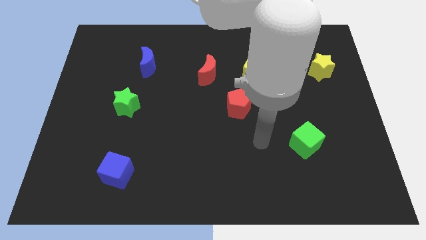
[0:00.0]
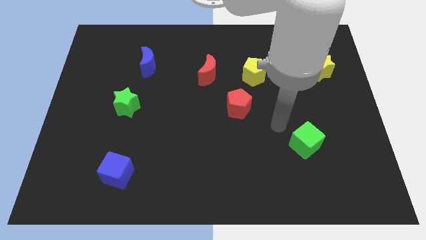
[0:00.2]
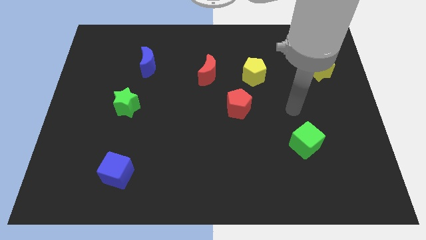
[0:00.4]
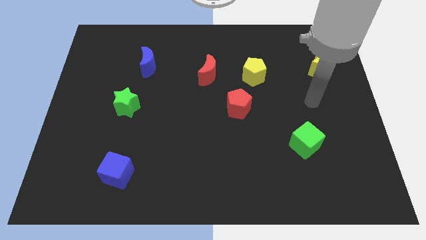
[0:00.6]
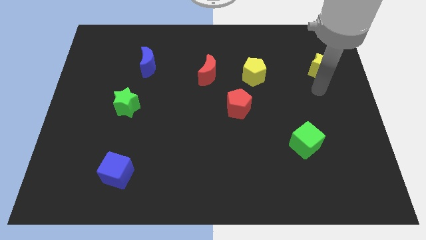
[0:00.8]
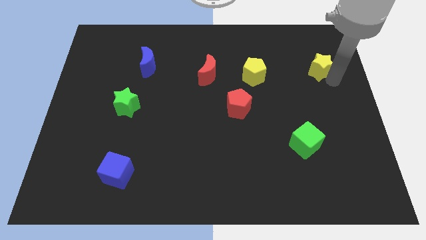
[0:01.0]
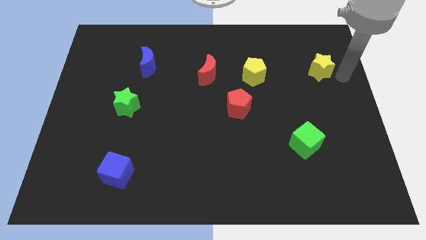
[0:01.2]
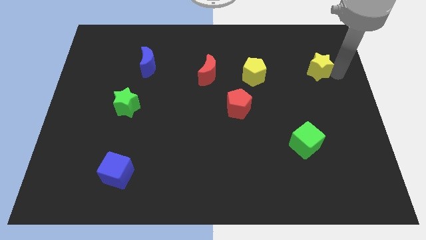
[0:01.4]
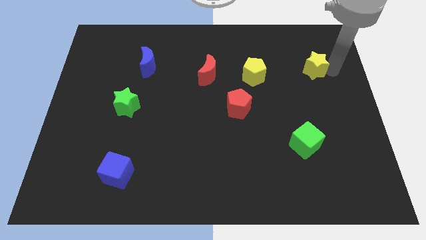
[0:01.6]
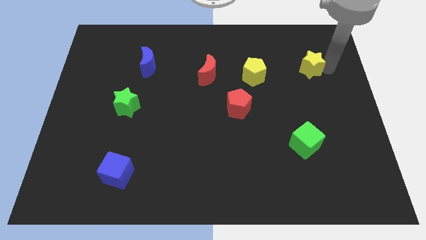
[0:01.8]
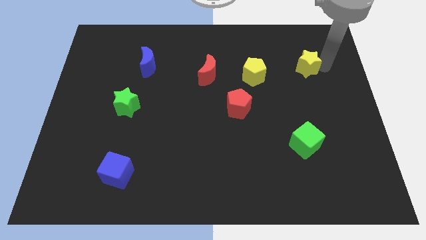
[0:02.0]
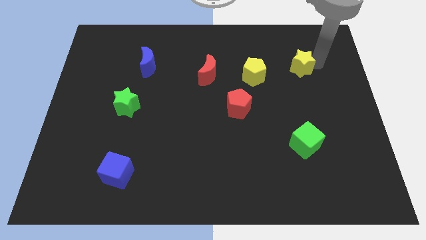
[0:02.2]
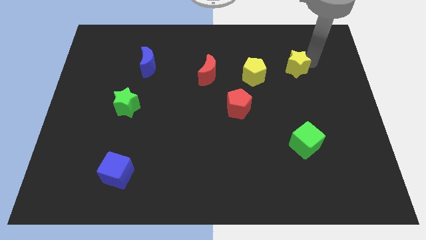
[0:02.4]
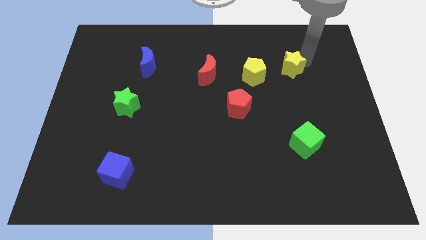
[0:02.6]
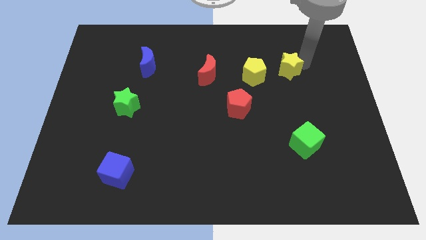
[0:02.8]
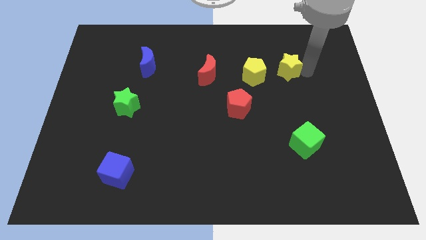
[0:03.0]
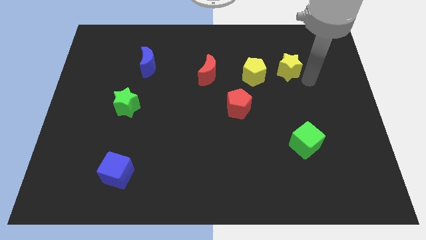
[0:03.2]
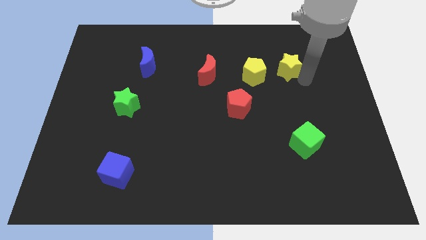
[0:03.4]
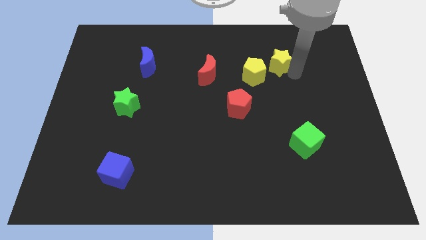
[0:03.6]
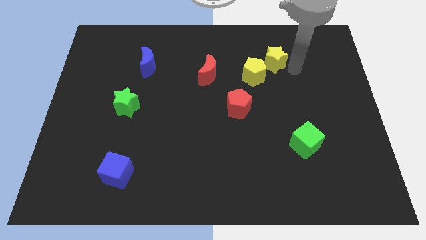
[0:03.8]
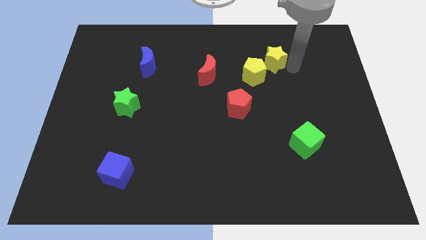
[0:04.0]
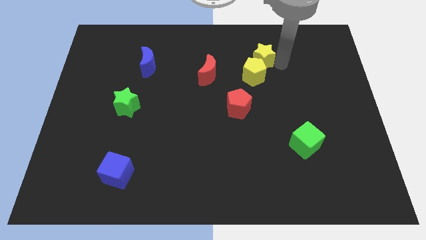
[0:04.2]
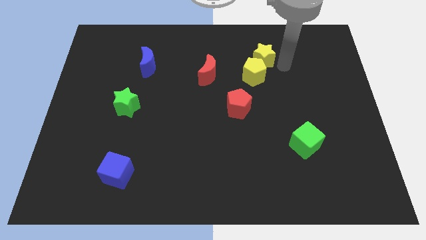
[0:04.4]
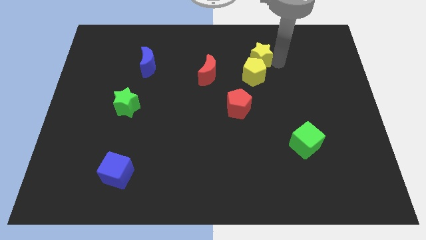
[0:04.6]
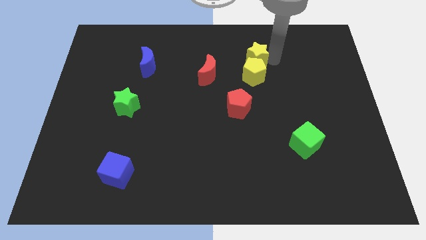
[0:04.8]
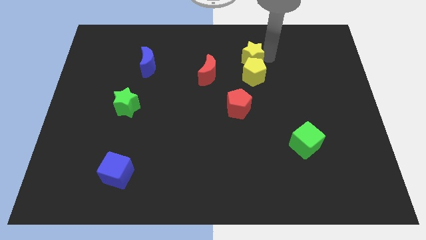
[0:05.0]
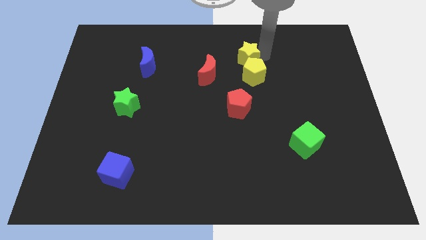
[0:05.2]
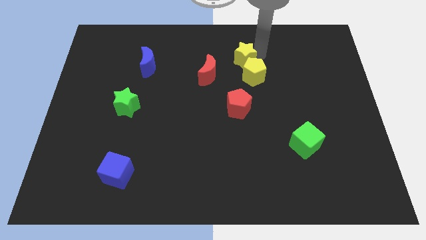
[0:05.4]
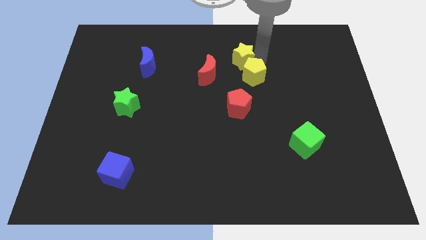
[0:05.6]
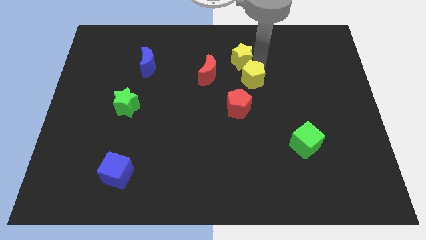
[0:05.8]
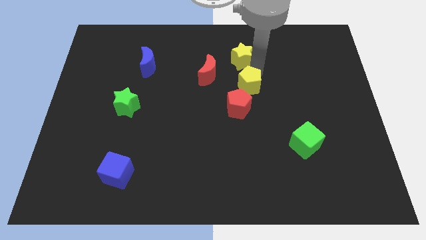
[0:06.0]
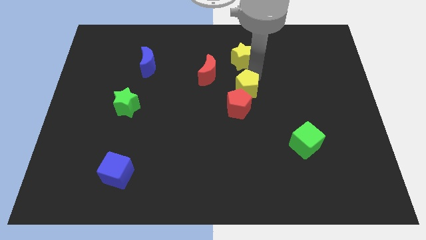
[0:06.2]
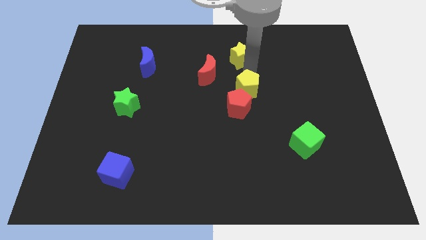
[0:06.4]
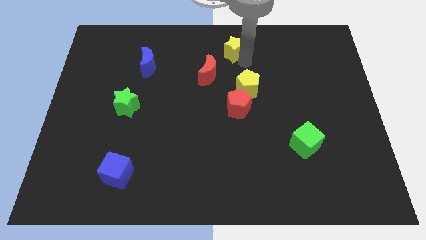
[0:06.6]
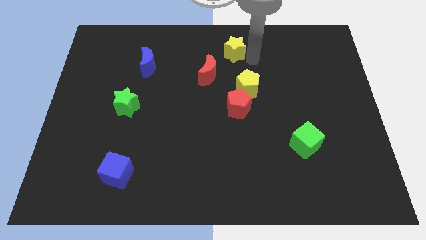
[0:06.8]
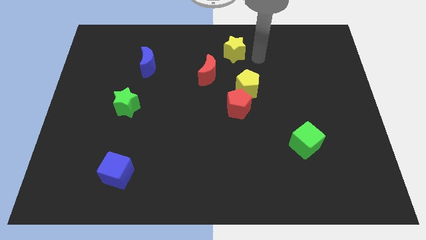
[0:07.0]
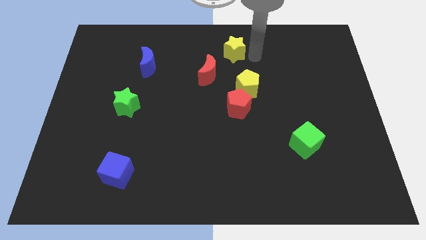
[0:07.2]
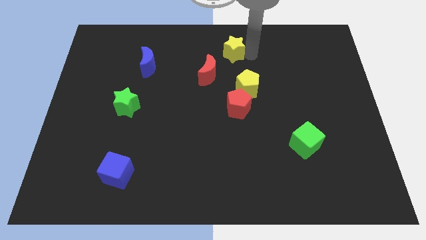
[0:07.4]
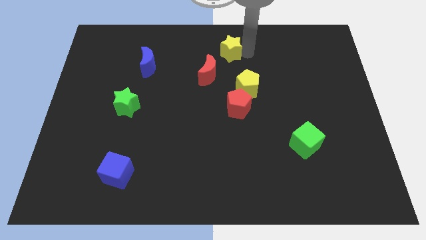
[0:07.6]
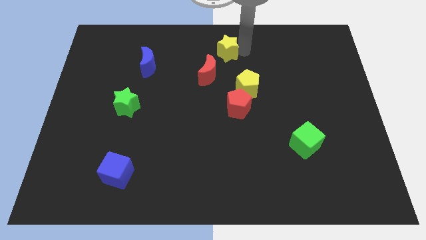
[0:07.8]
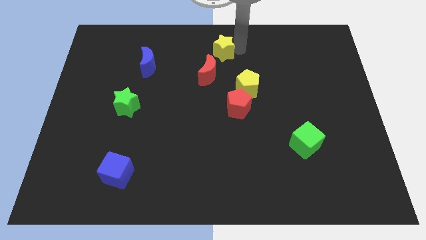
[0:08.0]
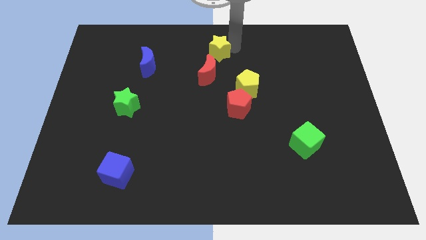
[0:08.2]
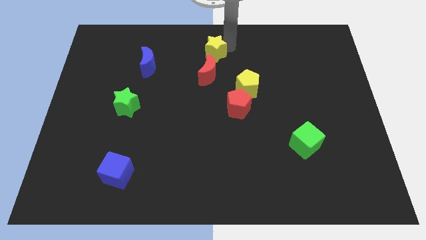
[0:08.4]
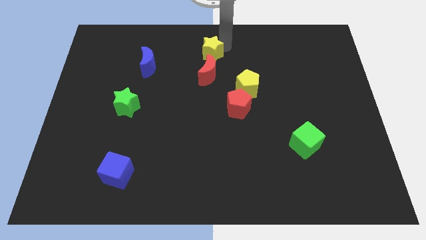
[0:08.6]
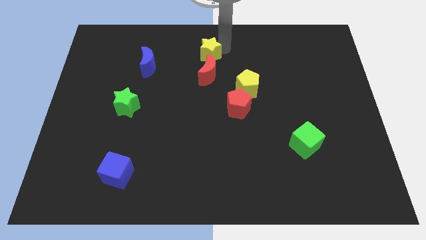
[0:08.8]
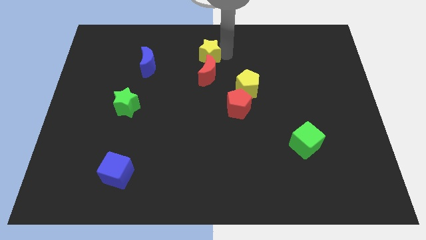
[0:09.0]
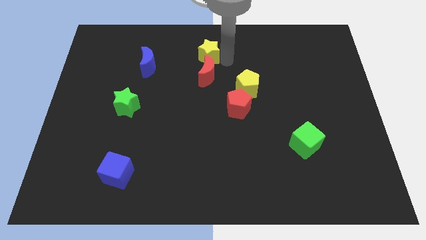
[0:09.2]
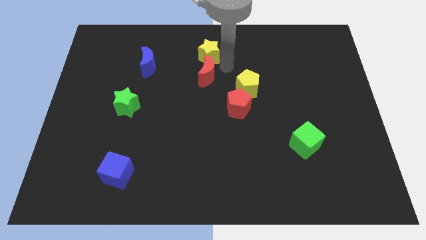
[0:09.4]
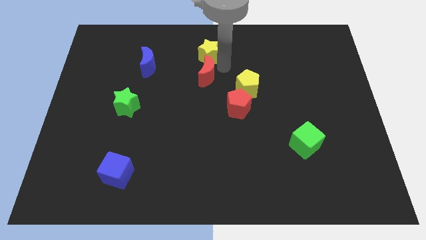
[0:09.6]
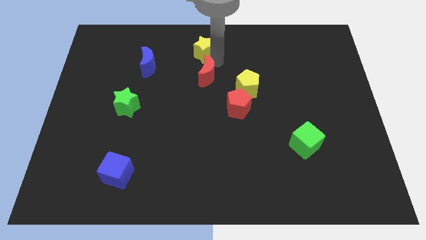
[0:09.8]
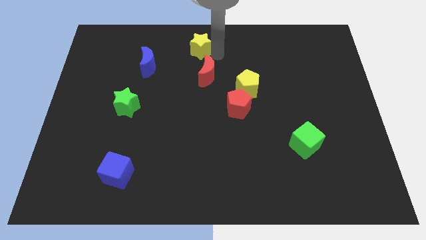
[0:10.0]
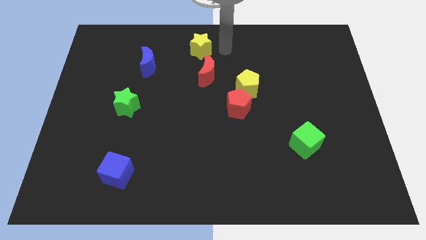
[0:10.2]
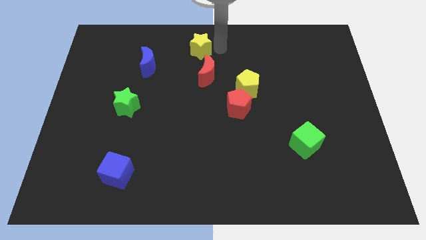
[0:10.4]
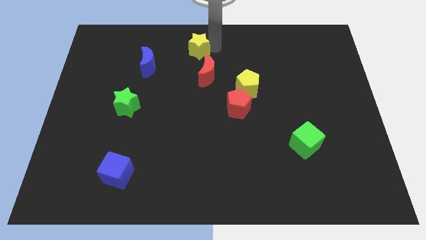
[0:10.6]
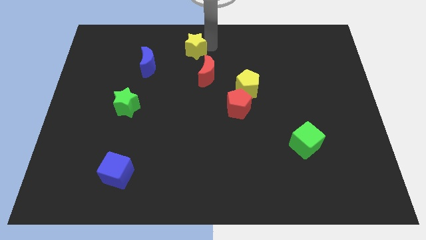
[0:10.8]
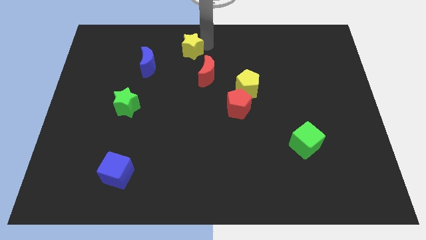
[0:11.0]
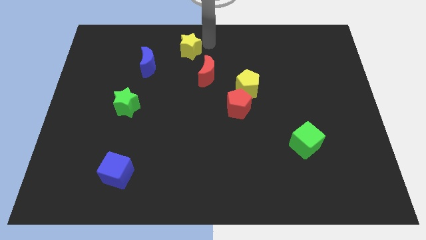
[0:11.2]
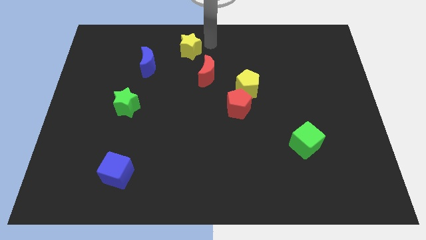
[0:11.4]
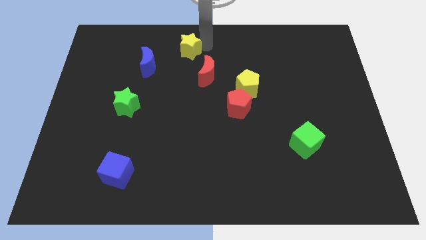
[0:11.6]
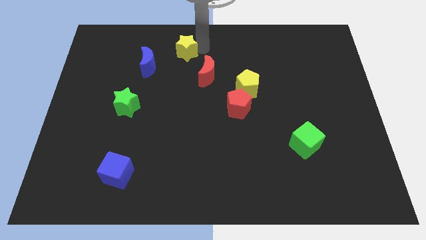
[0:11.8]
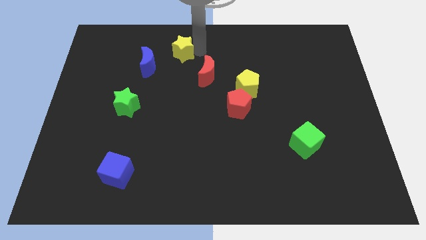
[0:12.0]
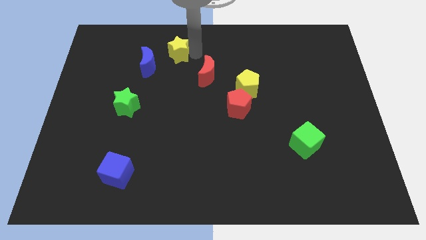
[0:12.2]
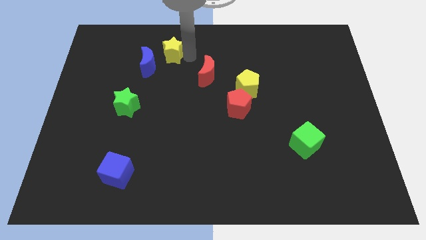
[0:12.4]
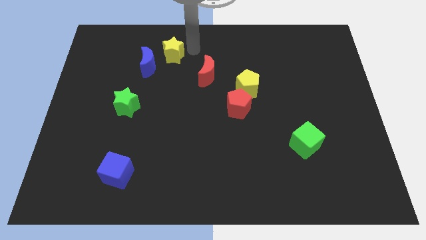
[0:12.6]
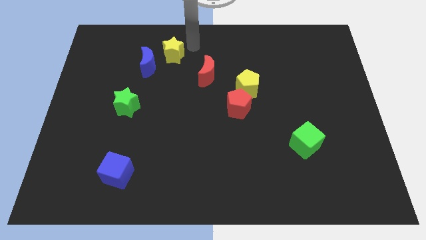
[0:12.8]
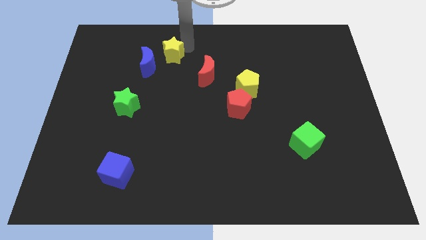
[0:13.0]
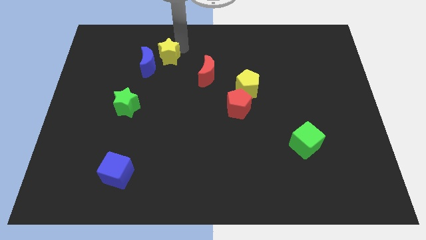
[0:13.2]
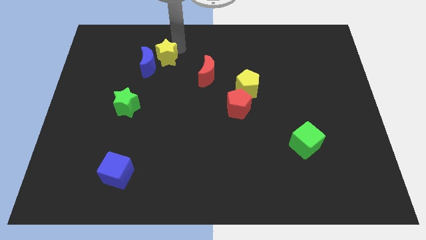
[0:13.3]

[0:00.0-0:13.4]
push the yellow star to the blue moon

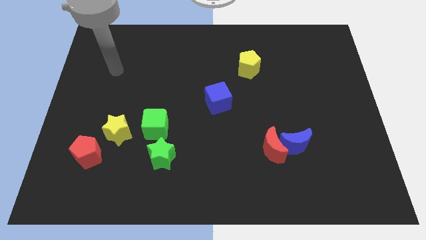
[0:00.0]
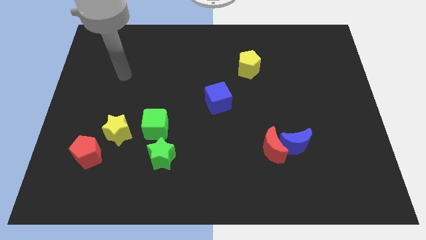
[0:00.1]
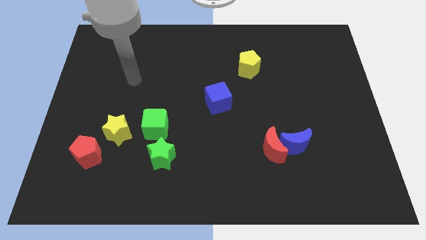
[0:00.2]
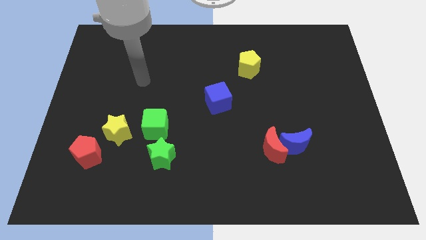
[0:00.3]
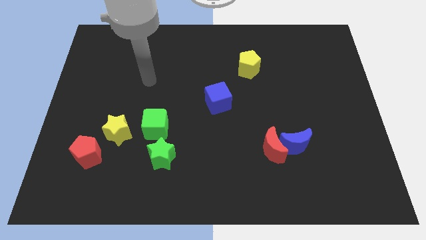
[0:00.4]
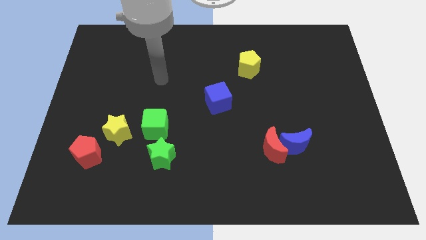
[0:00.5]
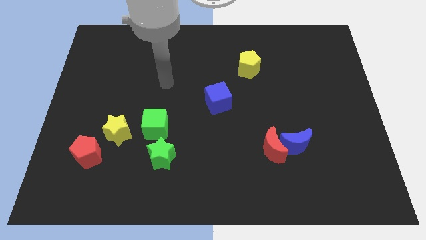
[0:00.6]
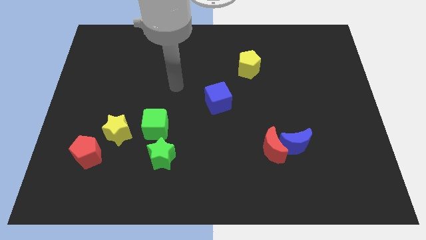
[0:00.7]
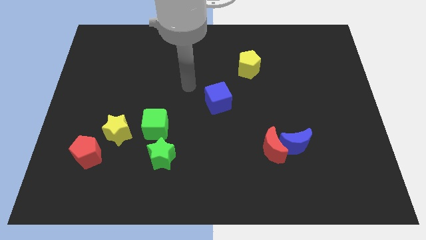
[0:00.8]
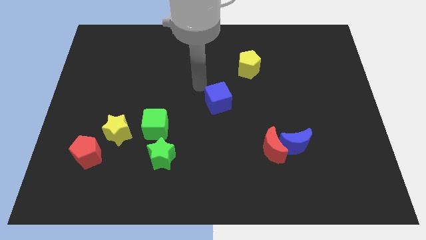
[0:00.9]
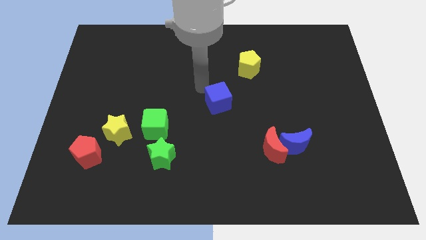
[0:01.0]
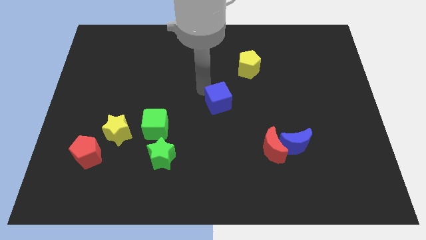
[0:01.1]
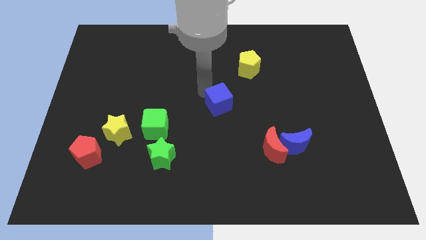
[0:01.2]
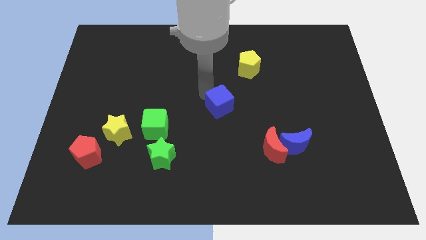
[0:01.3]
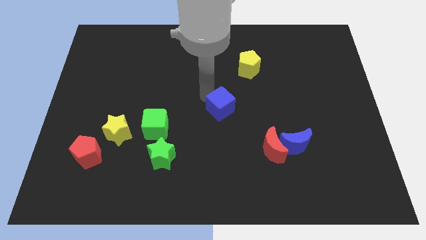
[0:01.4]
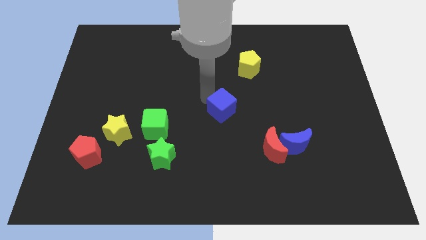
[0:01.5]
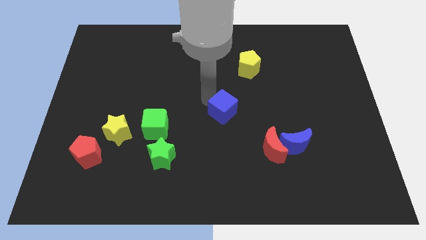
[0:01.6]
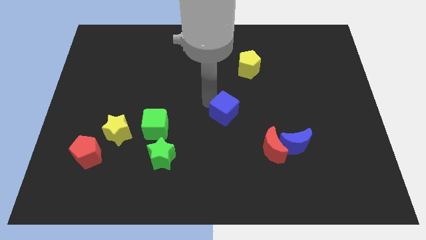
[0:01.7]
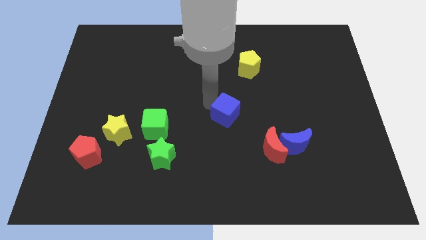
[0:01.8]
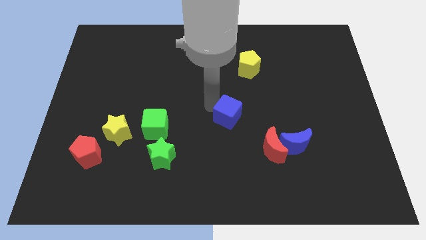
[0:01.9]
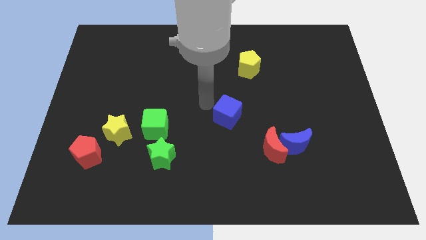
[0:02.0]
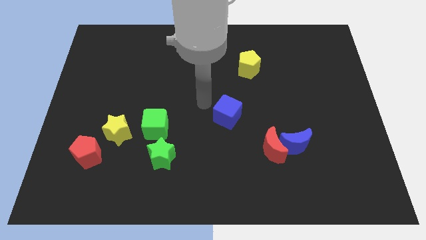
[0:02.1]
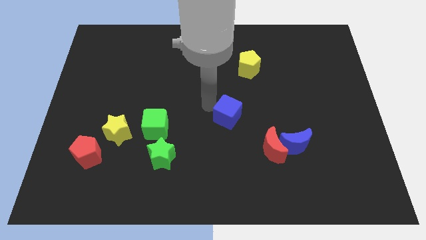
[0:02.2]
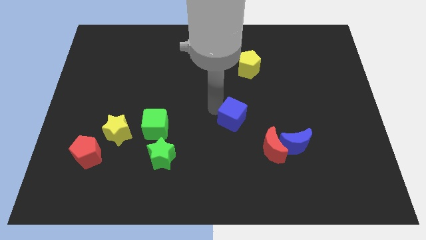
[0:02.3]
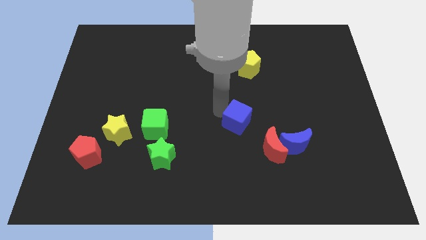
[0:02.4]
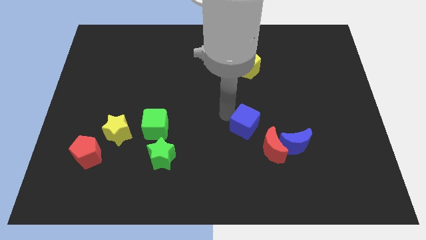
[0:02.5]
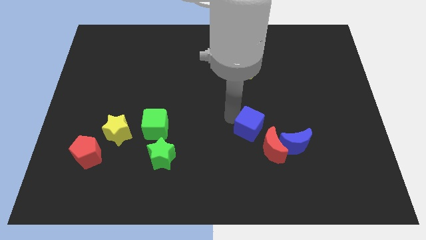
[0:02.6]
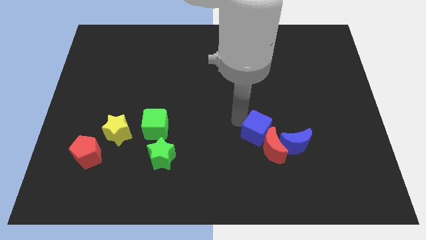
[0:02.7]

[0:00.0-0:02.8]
push the blue cube next to the red moon
